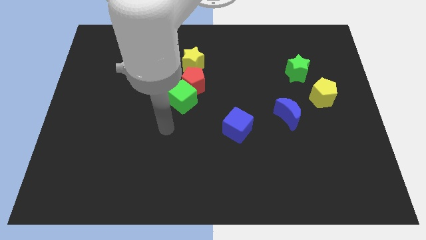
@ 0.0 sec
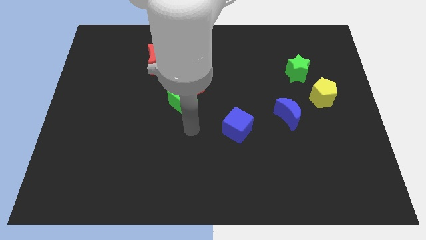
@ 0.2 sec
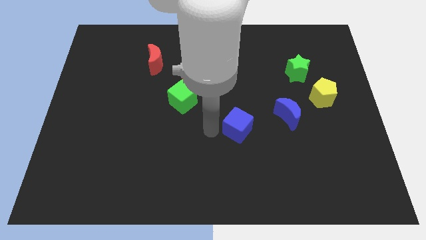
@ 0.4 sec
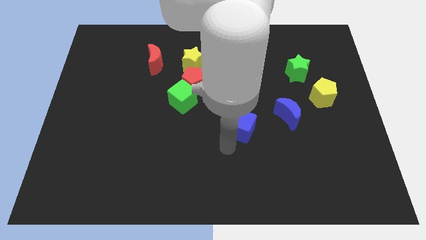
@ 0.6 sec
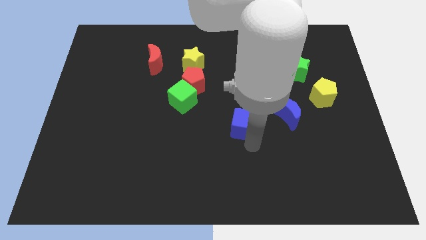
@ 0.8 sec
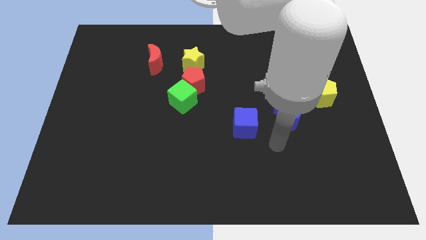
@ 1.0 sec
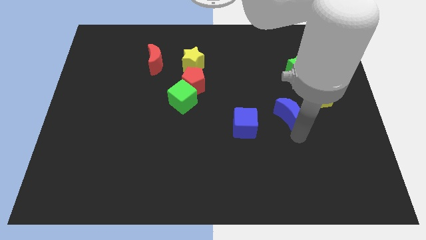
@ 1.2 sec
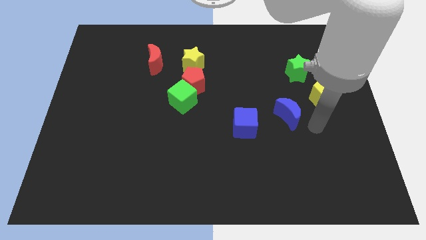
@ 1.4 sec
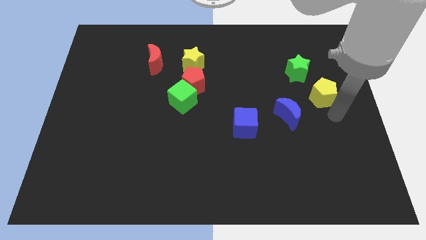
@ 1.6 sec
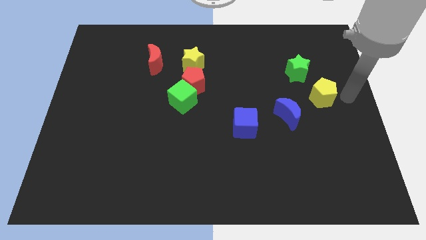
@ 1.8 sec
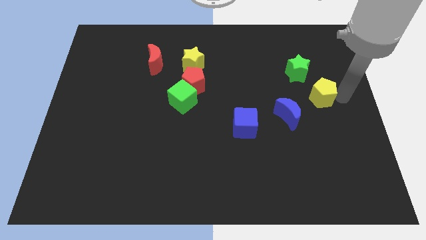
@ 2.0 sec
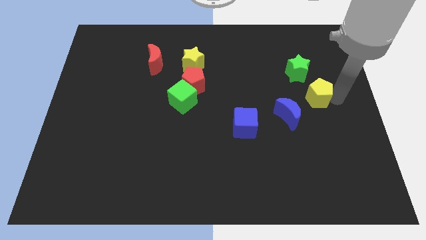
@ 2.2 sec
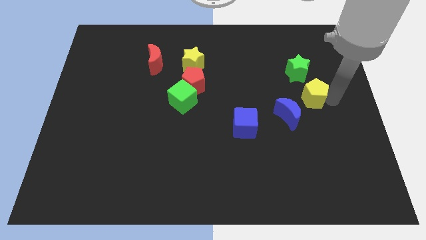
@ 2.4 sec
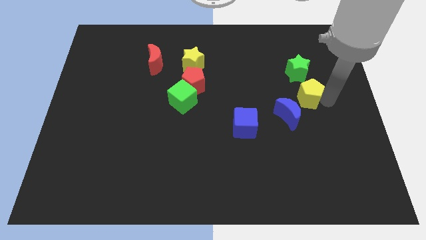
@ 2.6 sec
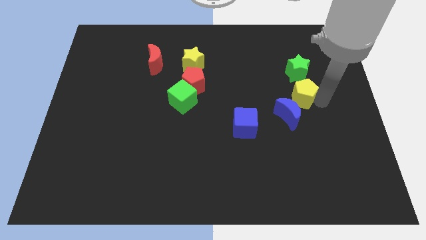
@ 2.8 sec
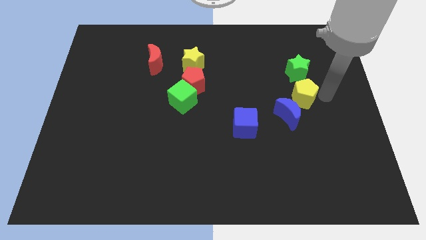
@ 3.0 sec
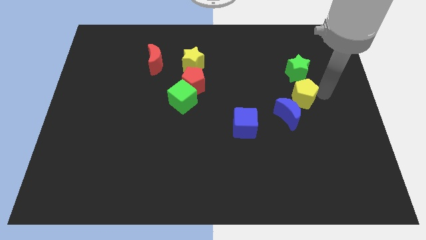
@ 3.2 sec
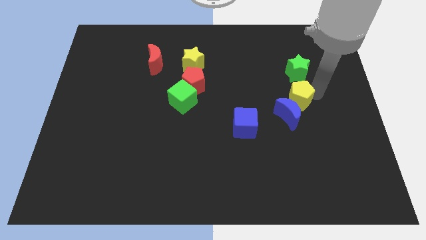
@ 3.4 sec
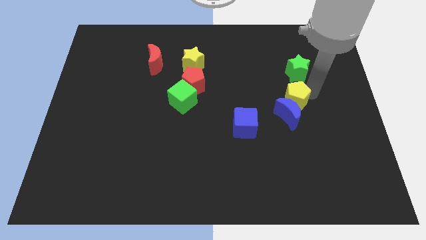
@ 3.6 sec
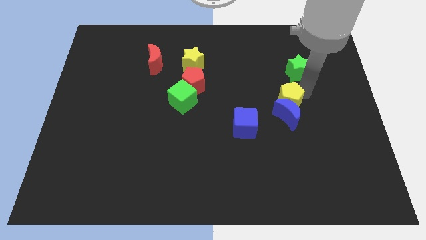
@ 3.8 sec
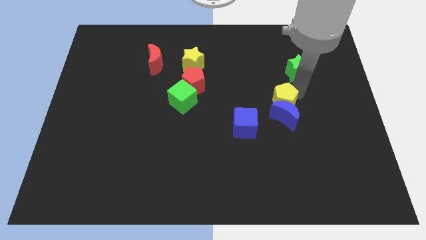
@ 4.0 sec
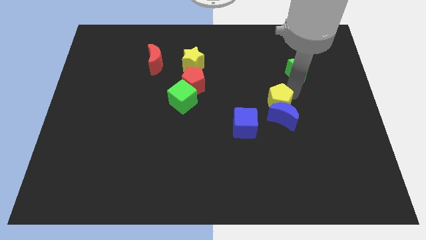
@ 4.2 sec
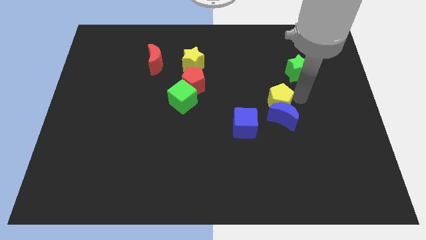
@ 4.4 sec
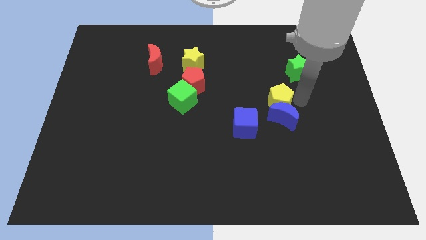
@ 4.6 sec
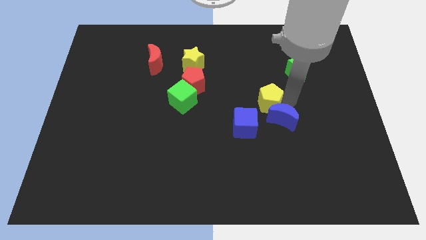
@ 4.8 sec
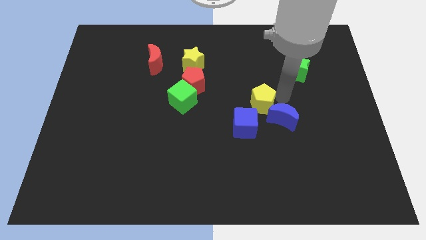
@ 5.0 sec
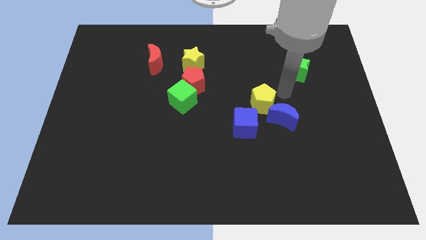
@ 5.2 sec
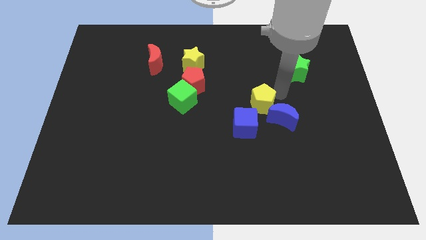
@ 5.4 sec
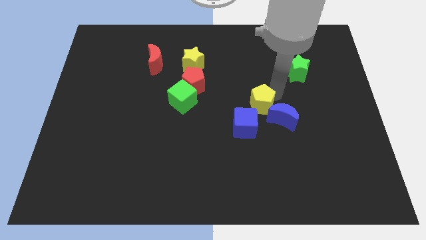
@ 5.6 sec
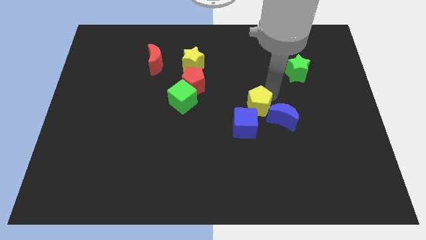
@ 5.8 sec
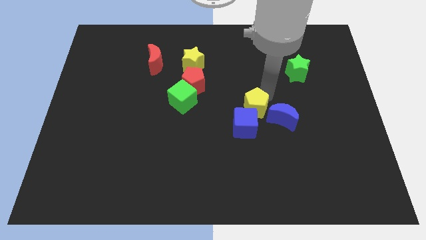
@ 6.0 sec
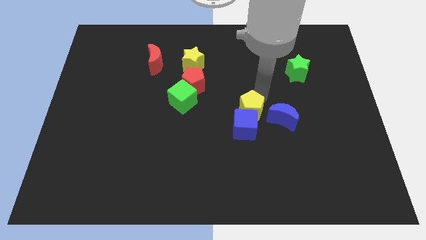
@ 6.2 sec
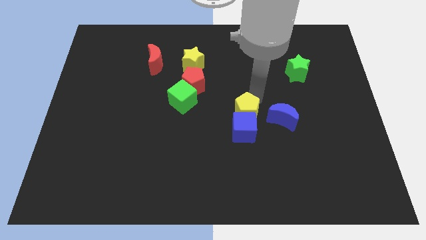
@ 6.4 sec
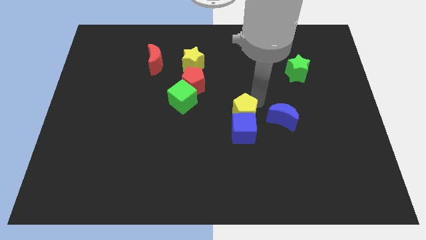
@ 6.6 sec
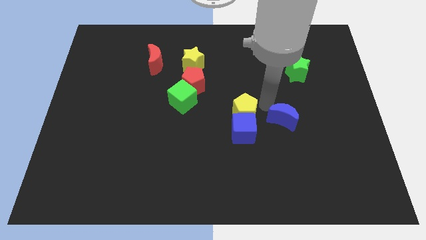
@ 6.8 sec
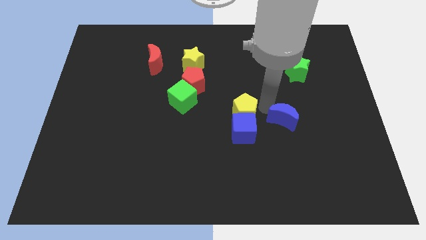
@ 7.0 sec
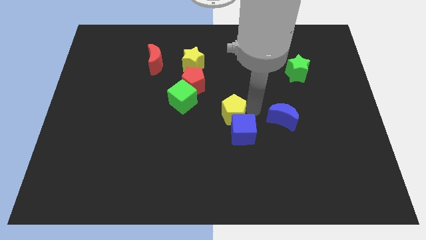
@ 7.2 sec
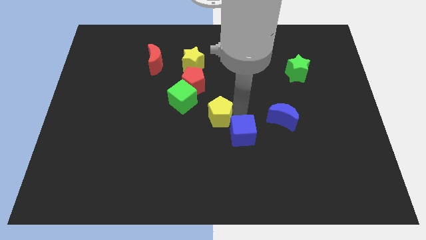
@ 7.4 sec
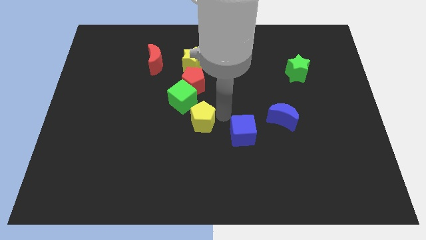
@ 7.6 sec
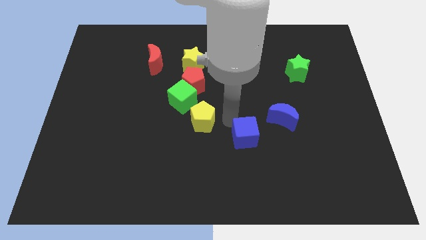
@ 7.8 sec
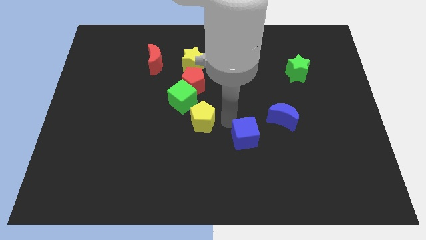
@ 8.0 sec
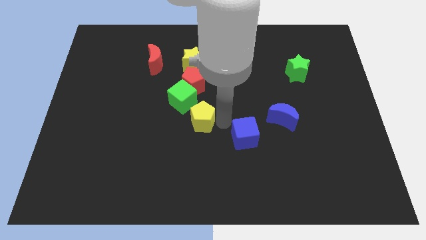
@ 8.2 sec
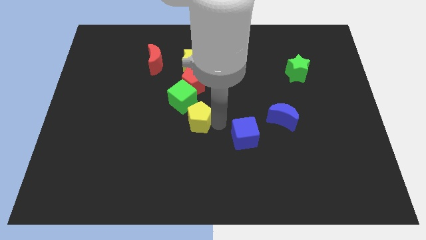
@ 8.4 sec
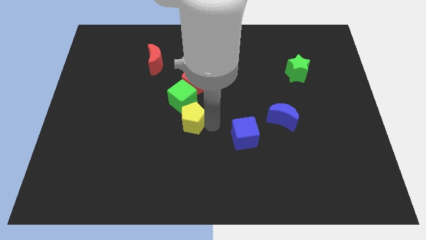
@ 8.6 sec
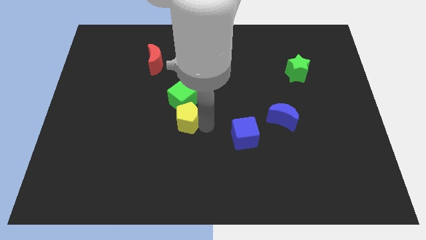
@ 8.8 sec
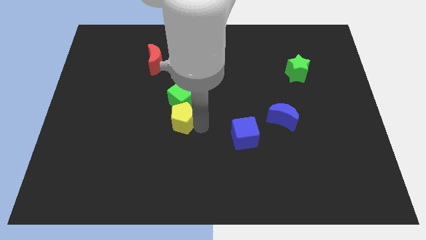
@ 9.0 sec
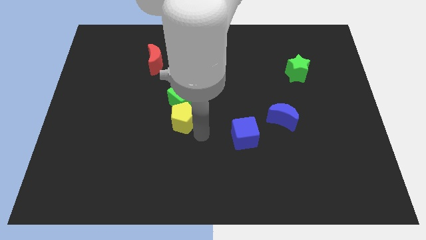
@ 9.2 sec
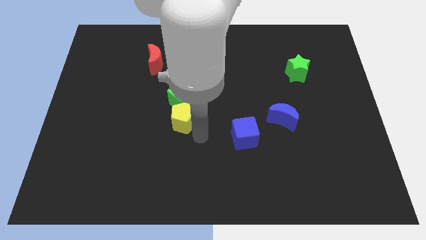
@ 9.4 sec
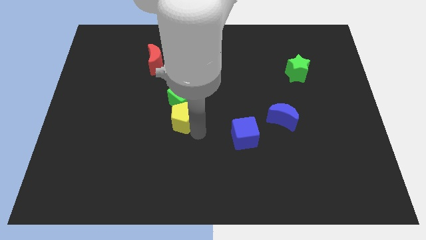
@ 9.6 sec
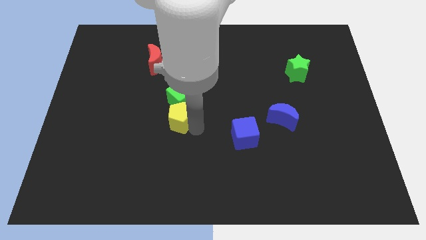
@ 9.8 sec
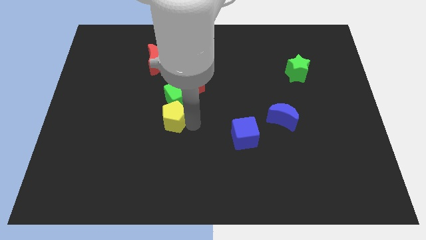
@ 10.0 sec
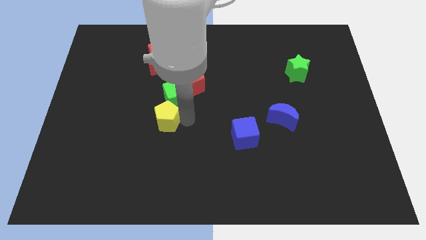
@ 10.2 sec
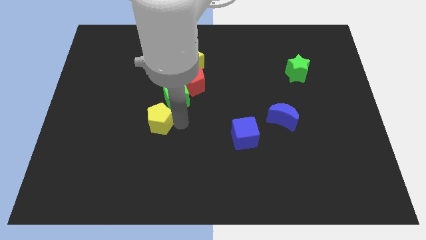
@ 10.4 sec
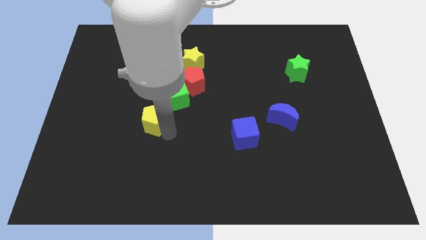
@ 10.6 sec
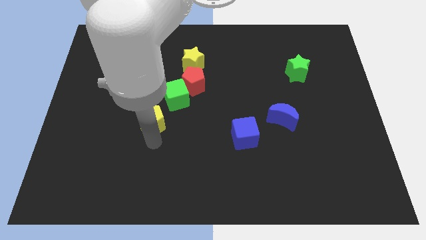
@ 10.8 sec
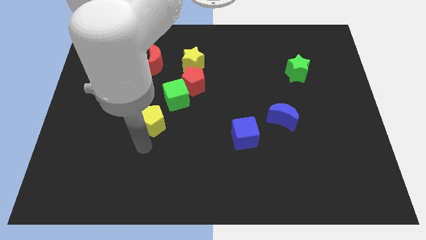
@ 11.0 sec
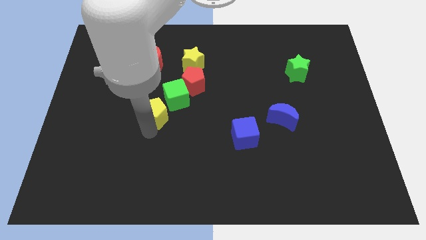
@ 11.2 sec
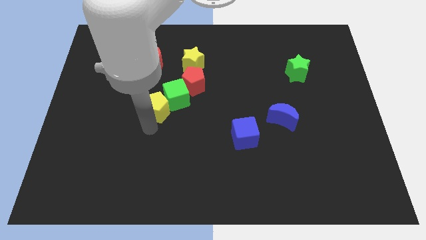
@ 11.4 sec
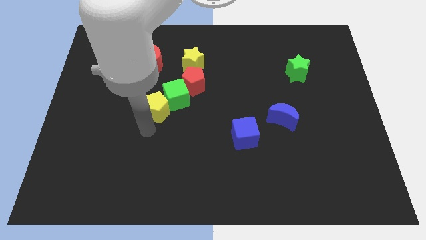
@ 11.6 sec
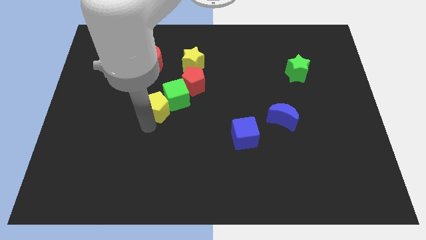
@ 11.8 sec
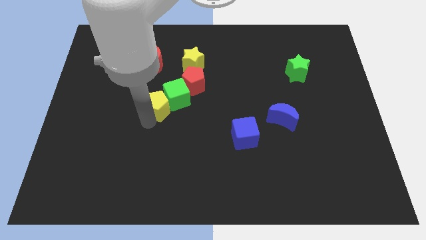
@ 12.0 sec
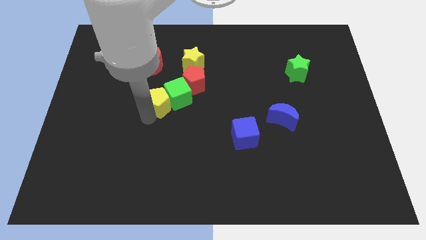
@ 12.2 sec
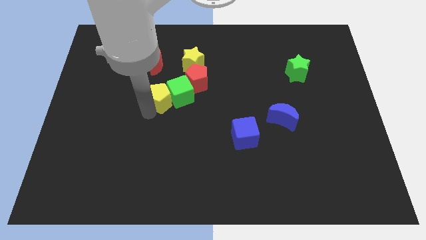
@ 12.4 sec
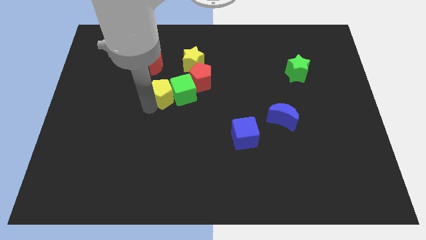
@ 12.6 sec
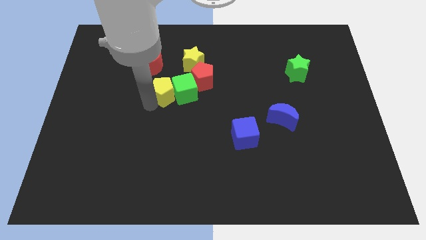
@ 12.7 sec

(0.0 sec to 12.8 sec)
slide the yellow pentagon to the bottom left side of the yellow star

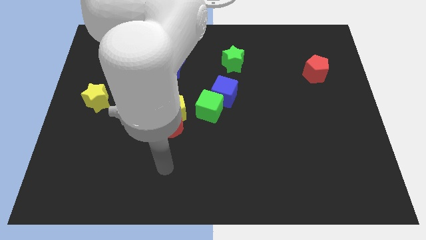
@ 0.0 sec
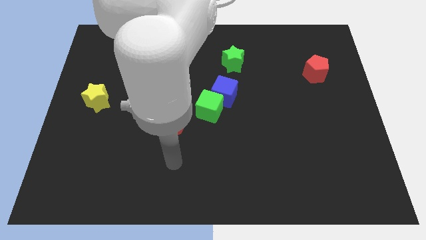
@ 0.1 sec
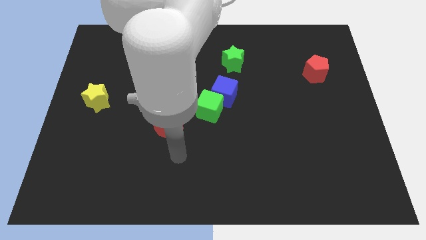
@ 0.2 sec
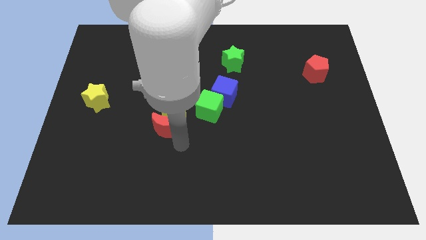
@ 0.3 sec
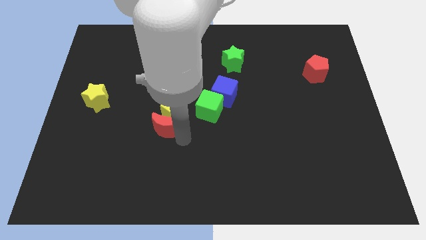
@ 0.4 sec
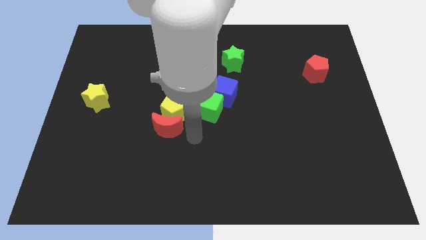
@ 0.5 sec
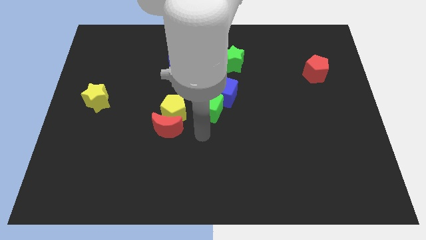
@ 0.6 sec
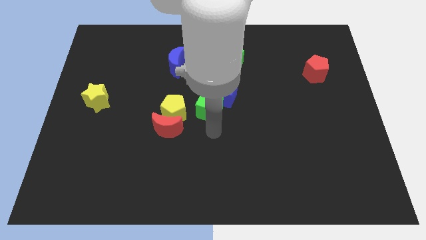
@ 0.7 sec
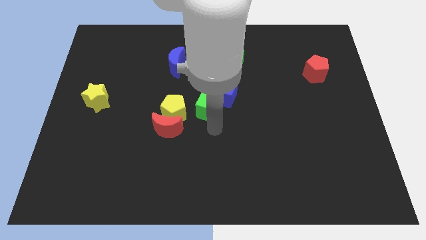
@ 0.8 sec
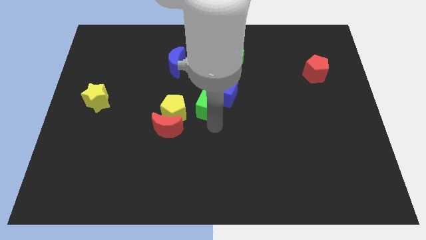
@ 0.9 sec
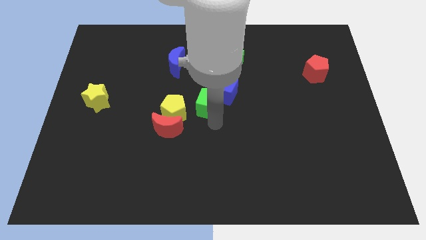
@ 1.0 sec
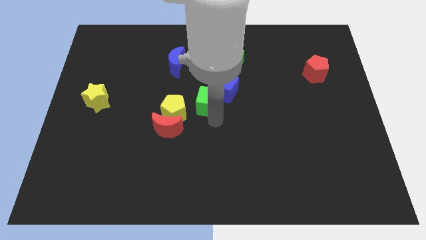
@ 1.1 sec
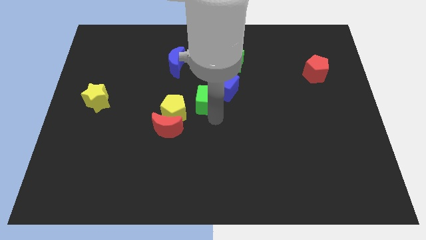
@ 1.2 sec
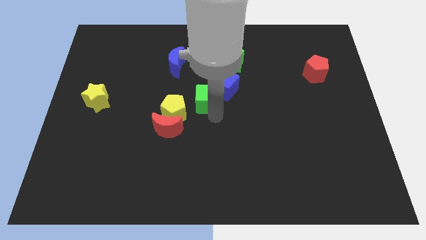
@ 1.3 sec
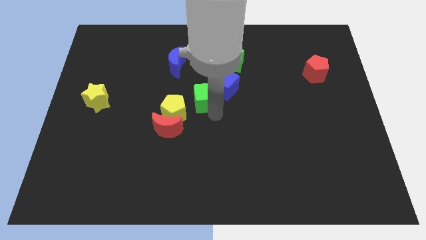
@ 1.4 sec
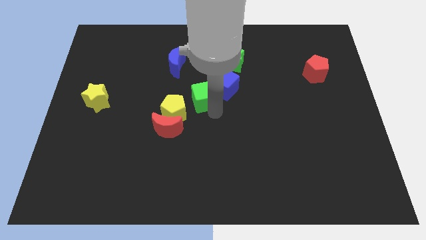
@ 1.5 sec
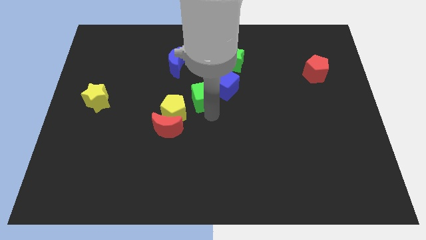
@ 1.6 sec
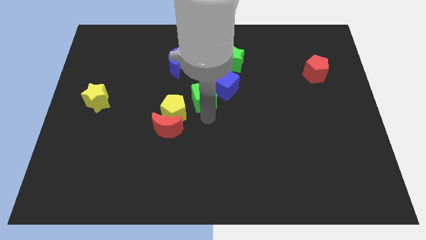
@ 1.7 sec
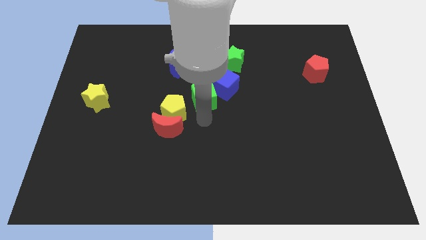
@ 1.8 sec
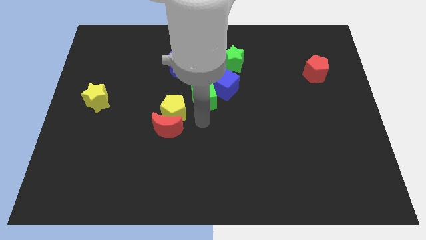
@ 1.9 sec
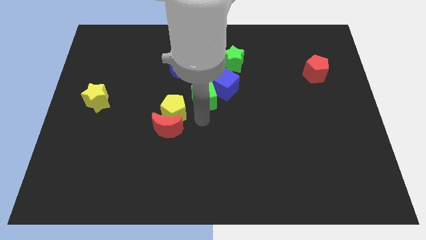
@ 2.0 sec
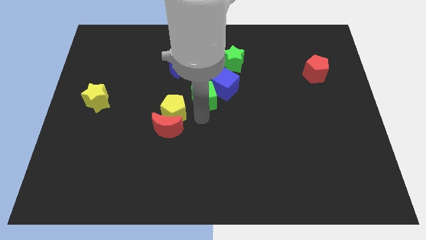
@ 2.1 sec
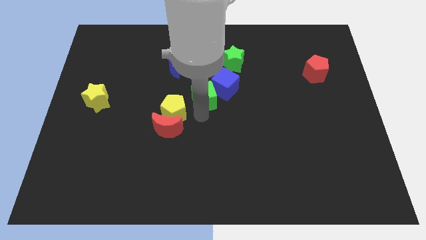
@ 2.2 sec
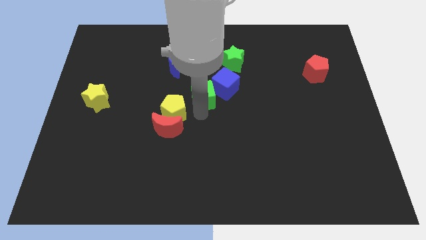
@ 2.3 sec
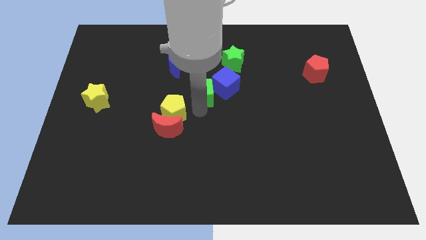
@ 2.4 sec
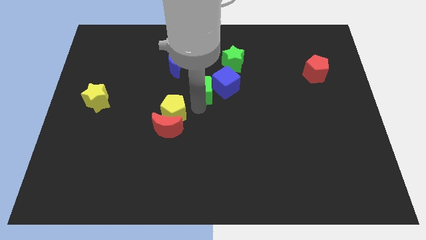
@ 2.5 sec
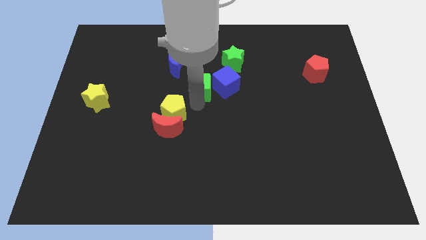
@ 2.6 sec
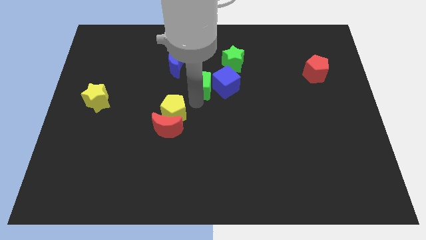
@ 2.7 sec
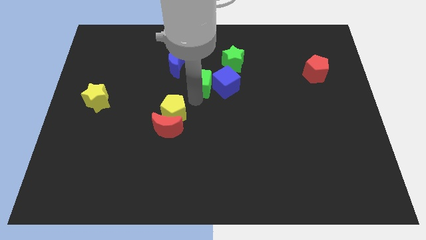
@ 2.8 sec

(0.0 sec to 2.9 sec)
push the green cube diagonally up and to the left of the blue cube
